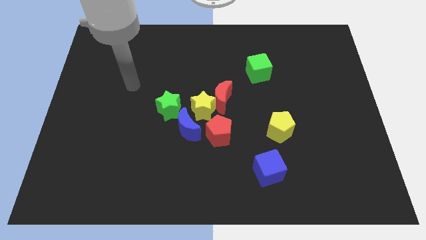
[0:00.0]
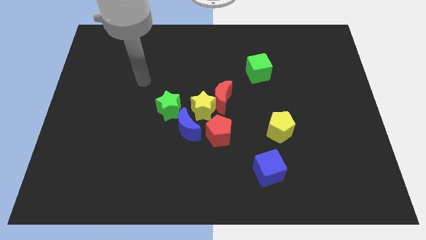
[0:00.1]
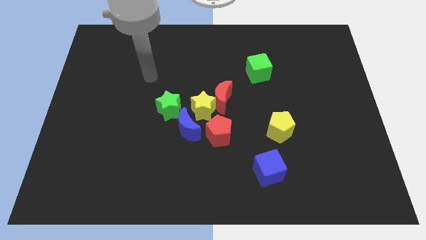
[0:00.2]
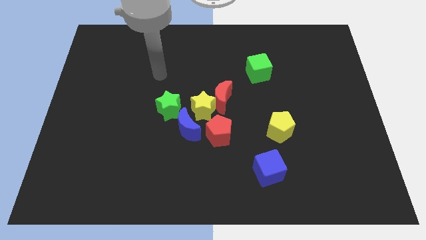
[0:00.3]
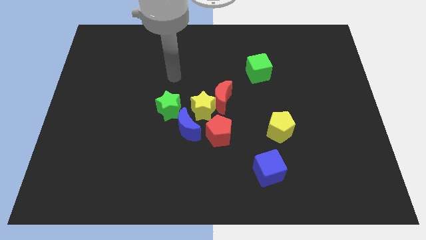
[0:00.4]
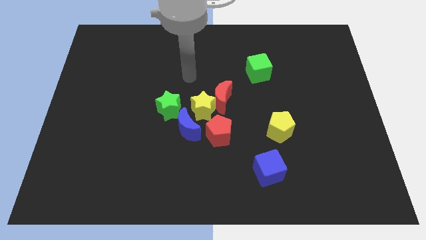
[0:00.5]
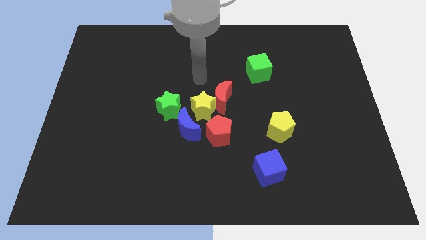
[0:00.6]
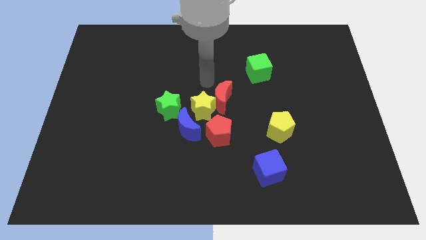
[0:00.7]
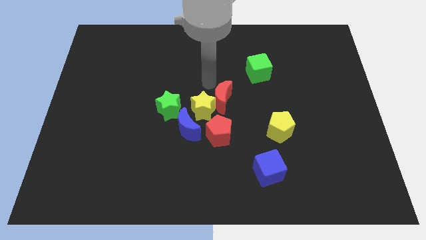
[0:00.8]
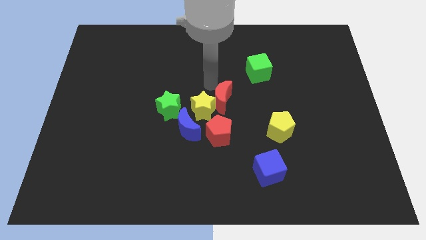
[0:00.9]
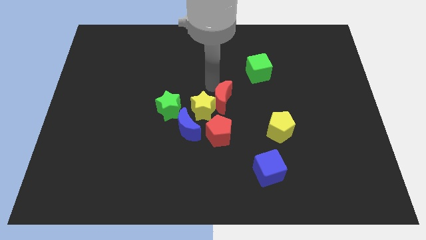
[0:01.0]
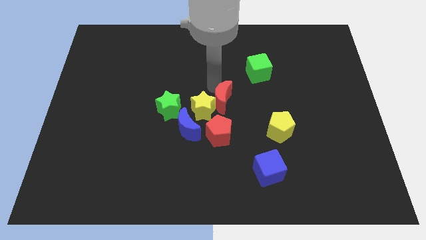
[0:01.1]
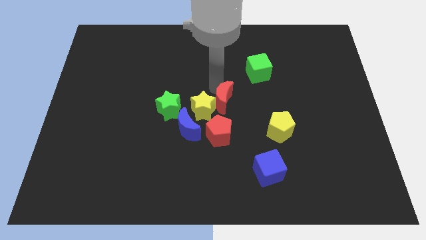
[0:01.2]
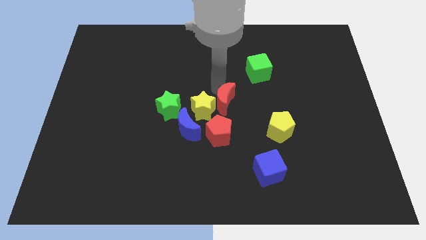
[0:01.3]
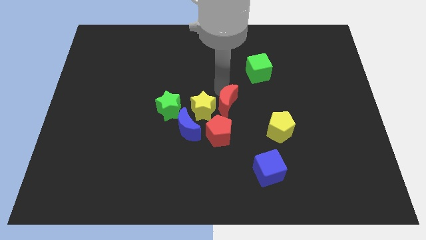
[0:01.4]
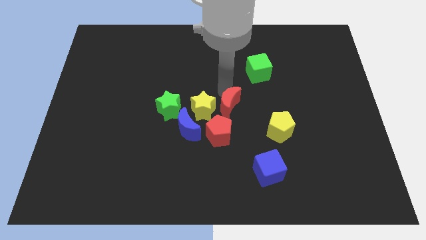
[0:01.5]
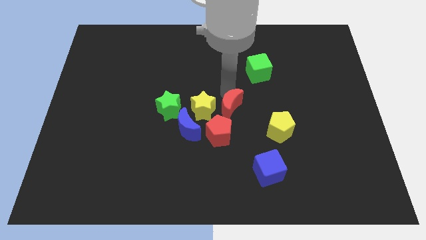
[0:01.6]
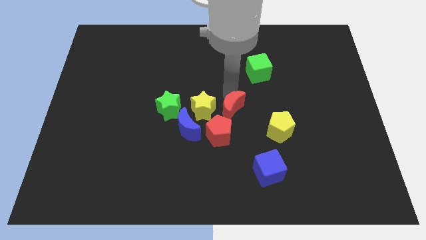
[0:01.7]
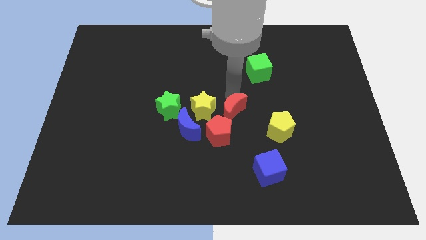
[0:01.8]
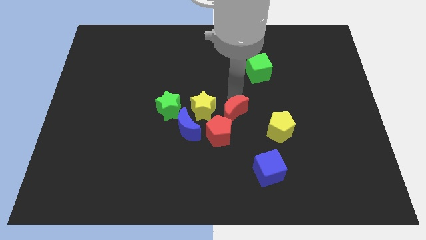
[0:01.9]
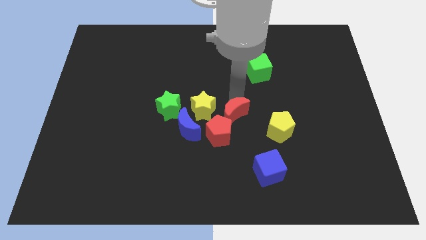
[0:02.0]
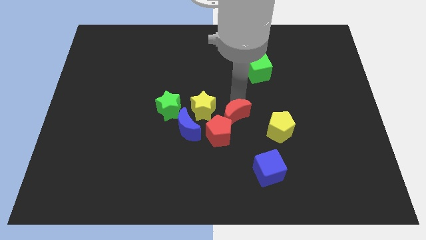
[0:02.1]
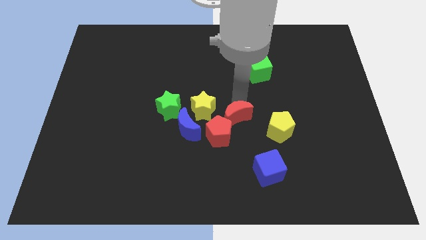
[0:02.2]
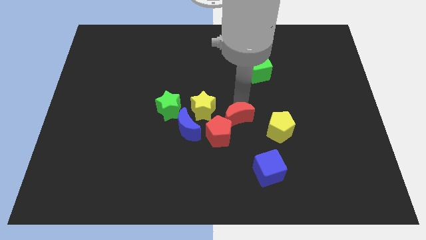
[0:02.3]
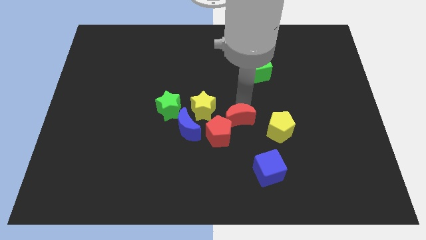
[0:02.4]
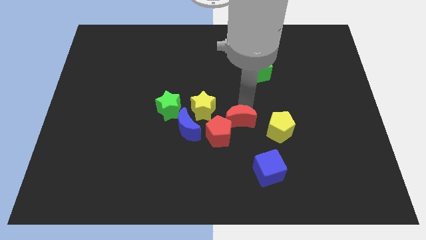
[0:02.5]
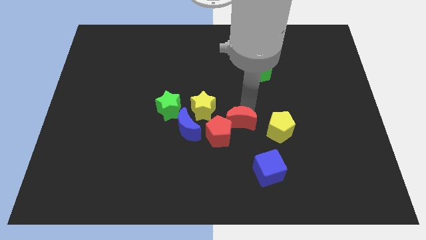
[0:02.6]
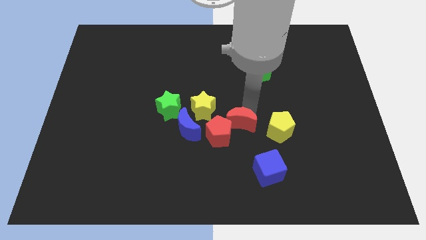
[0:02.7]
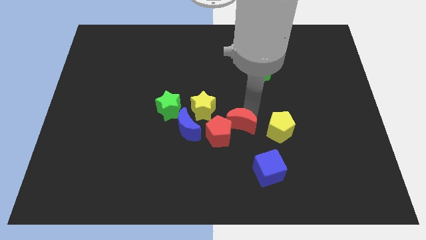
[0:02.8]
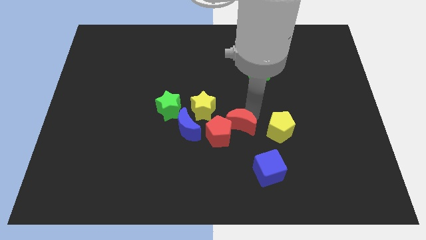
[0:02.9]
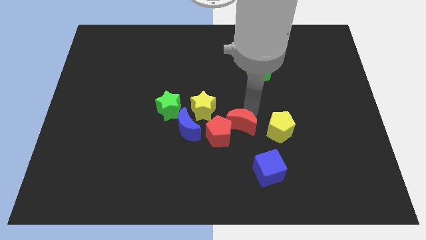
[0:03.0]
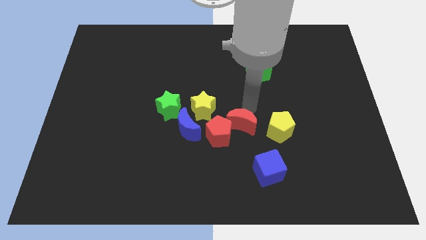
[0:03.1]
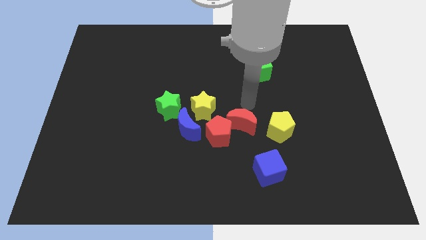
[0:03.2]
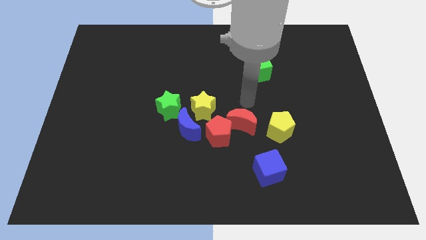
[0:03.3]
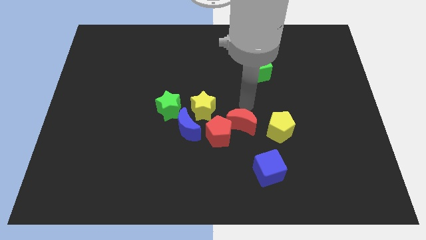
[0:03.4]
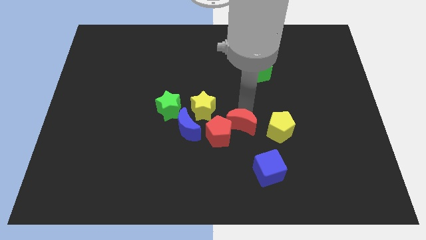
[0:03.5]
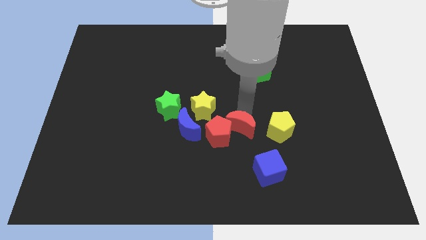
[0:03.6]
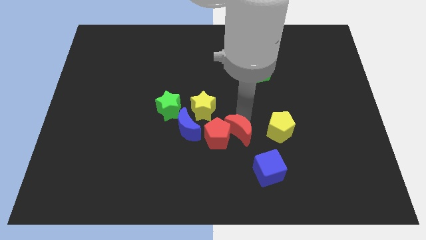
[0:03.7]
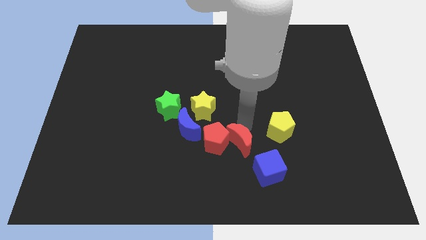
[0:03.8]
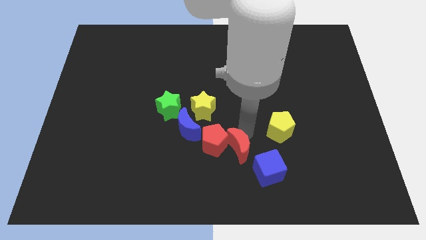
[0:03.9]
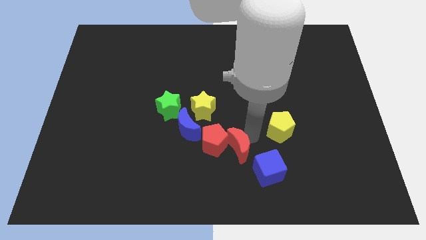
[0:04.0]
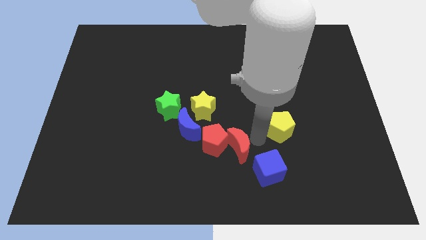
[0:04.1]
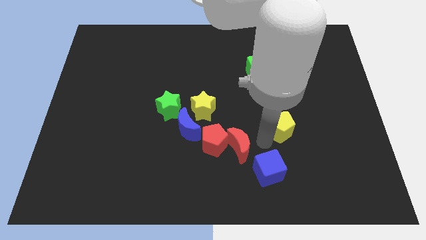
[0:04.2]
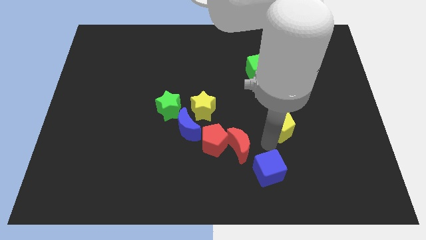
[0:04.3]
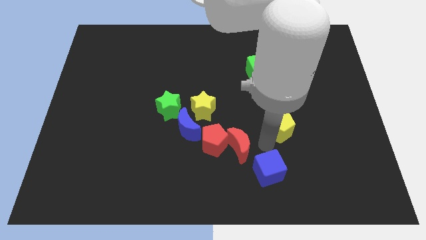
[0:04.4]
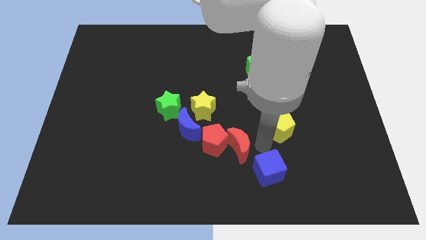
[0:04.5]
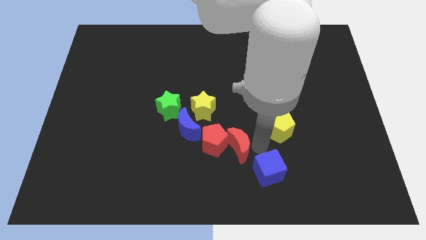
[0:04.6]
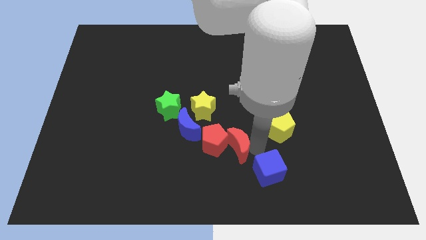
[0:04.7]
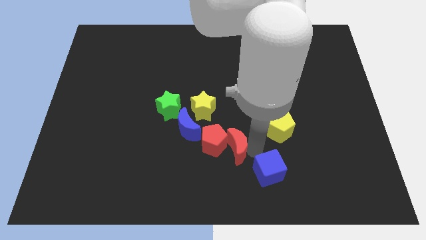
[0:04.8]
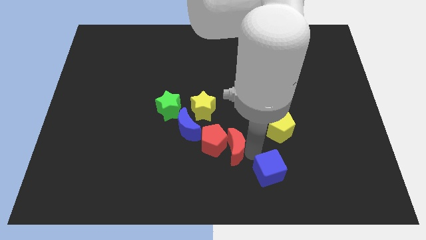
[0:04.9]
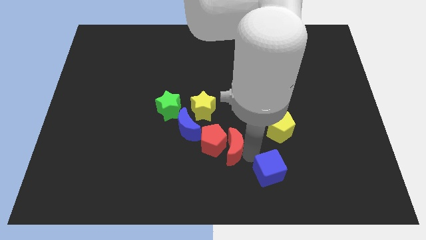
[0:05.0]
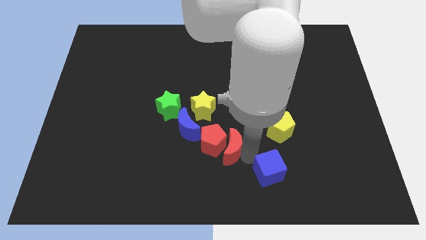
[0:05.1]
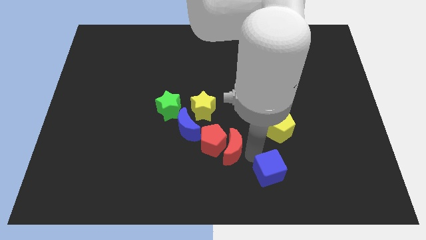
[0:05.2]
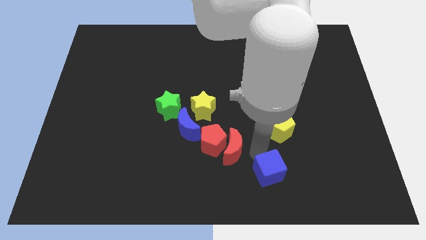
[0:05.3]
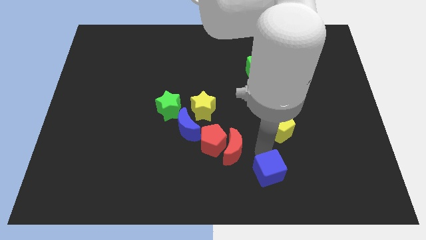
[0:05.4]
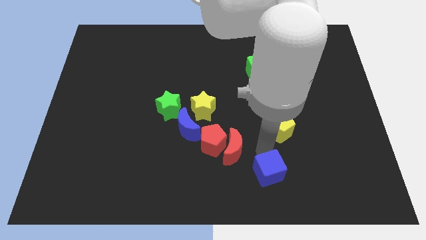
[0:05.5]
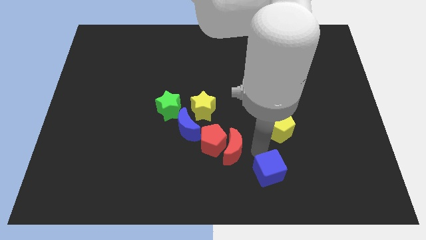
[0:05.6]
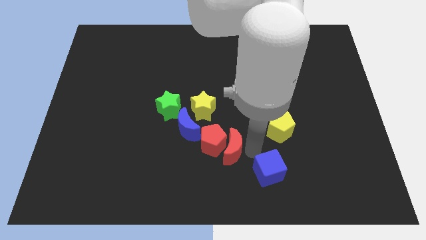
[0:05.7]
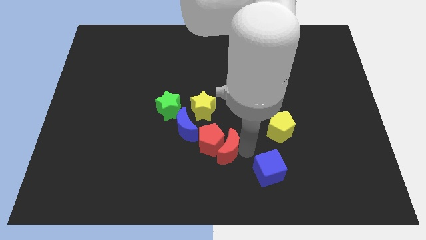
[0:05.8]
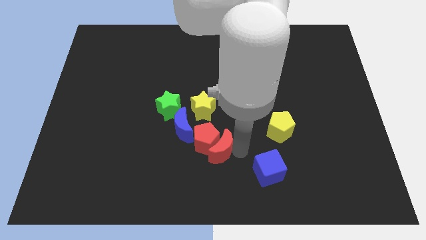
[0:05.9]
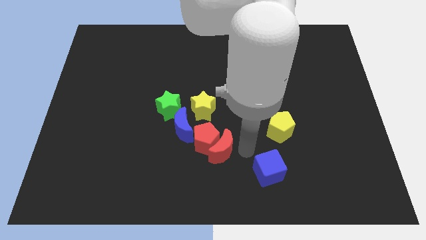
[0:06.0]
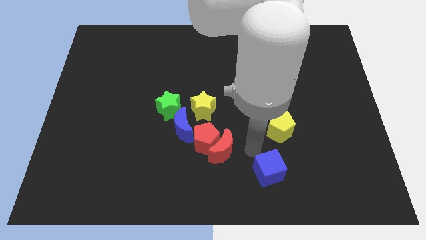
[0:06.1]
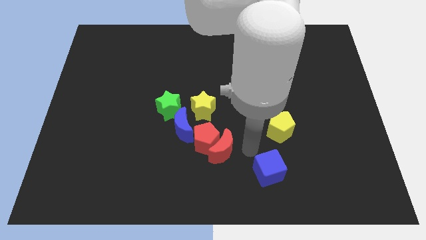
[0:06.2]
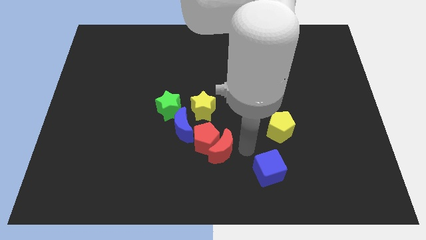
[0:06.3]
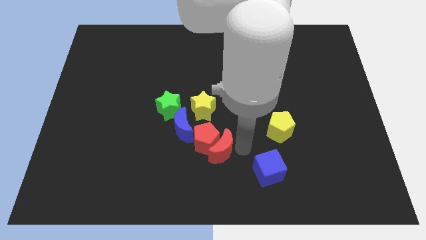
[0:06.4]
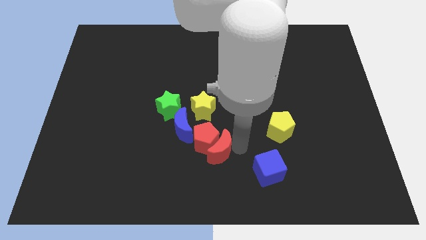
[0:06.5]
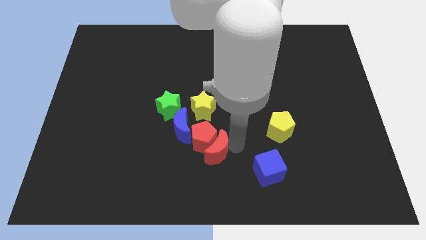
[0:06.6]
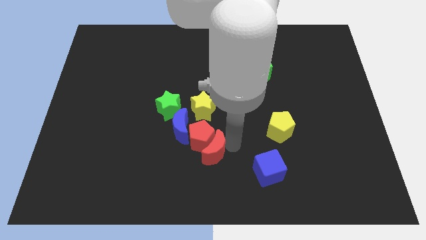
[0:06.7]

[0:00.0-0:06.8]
move the red moon down and then left a bit

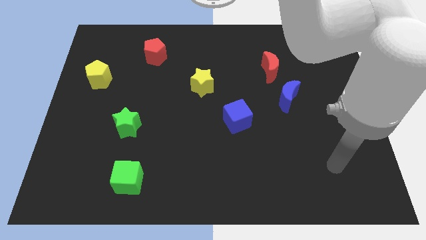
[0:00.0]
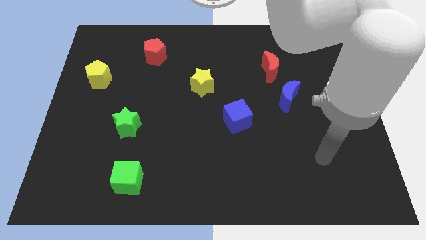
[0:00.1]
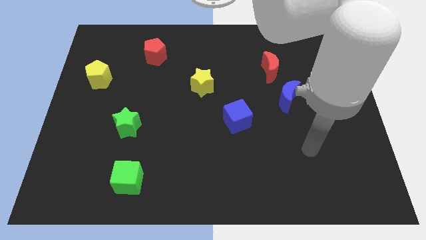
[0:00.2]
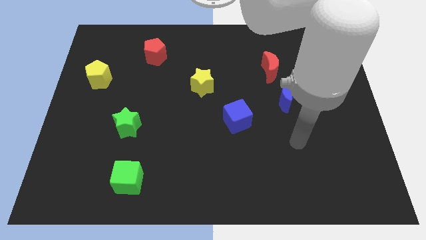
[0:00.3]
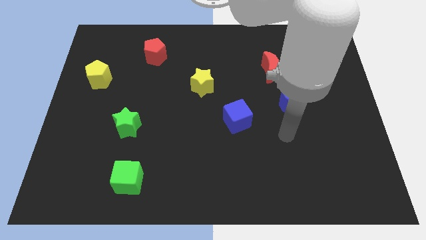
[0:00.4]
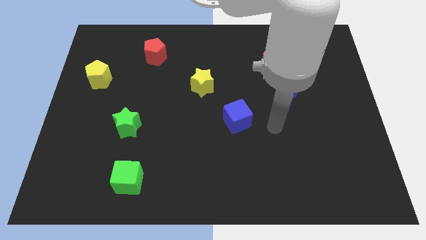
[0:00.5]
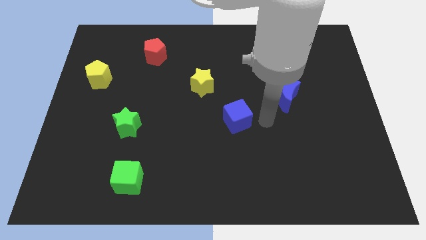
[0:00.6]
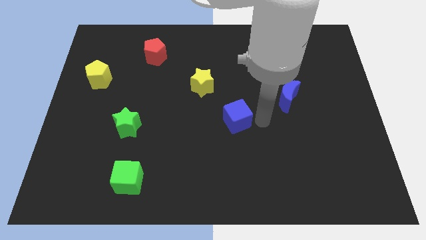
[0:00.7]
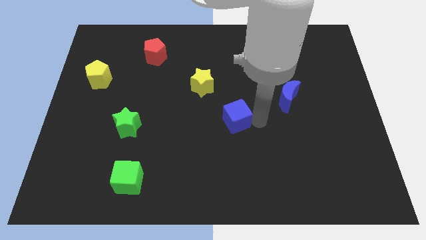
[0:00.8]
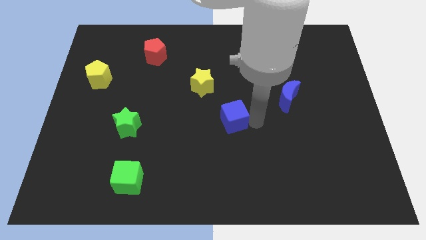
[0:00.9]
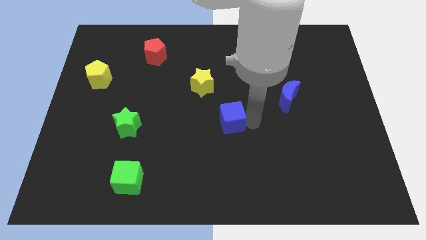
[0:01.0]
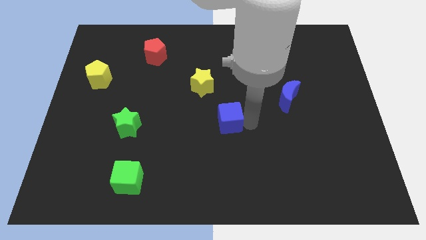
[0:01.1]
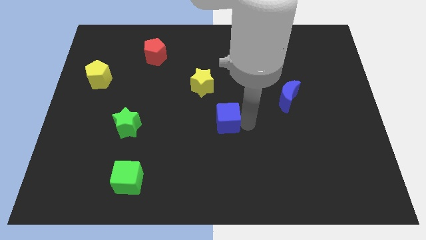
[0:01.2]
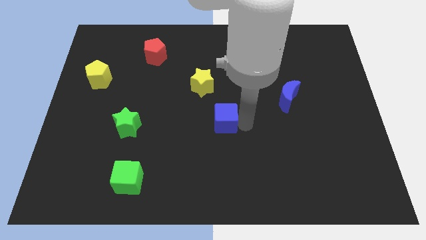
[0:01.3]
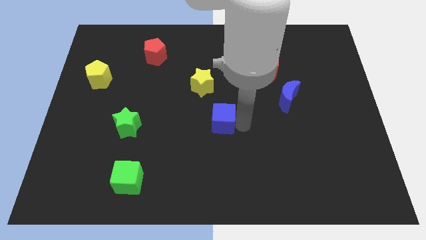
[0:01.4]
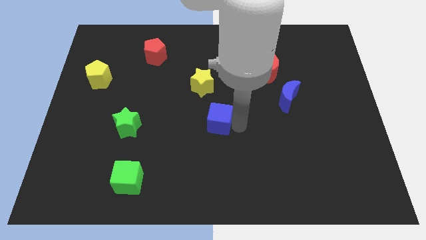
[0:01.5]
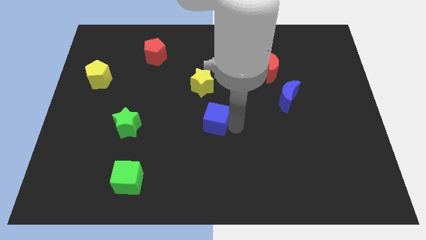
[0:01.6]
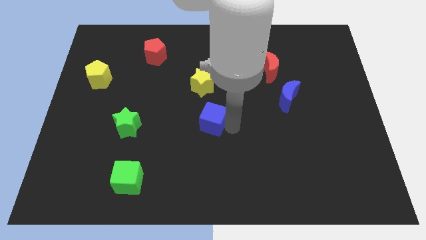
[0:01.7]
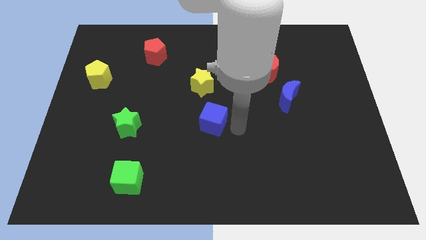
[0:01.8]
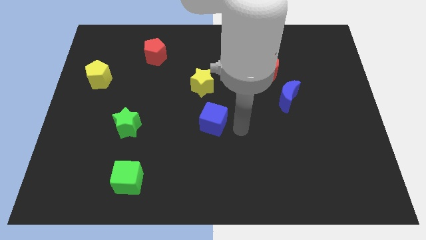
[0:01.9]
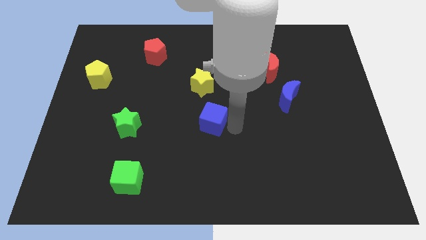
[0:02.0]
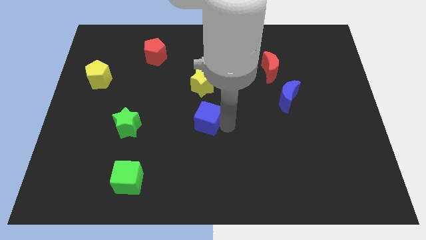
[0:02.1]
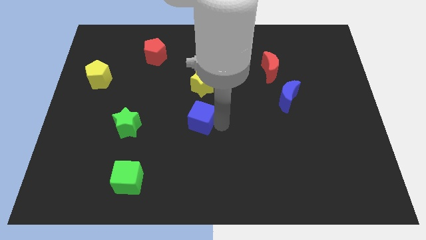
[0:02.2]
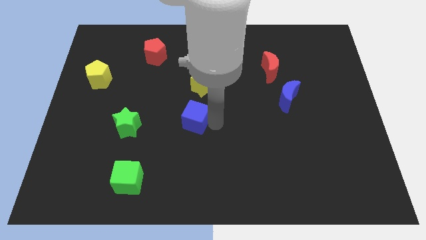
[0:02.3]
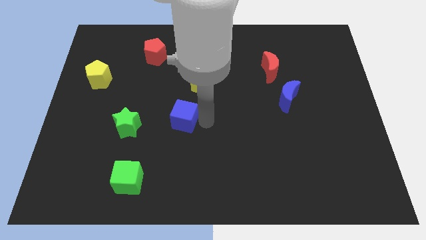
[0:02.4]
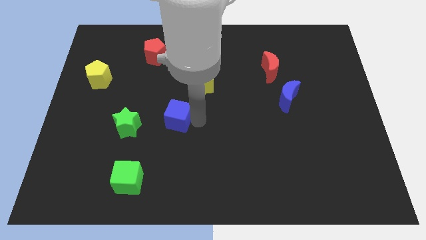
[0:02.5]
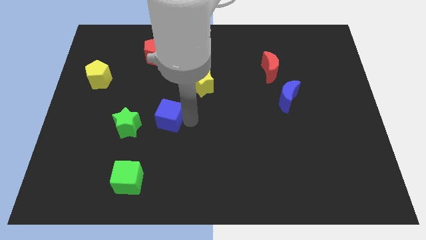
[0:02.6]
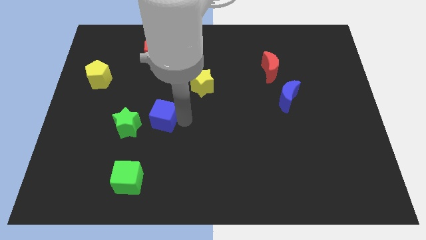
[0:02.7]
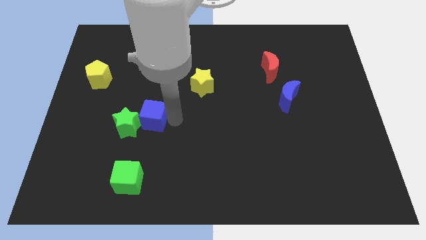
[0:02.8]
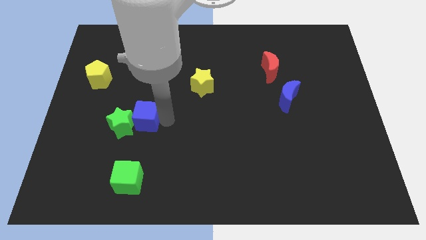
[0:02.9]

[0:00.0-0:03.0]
move the blue cube to the left
